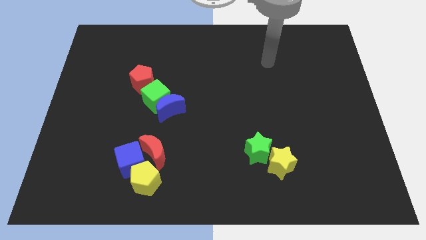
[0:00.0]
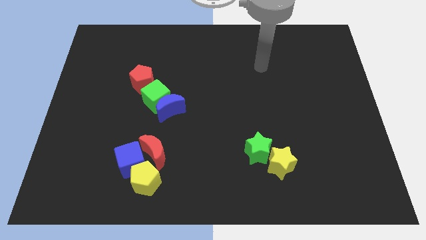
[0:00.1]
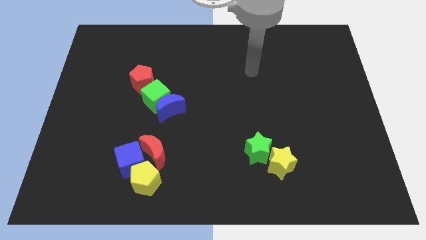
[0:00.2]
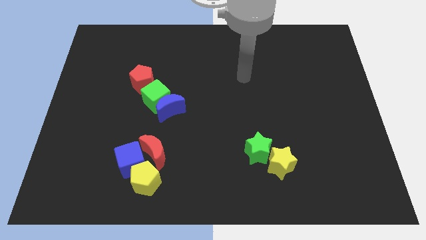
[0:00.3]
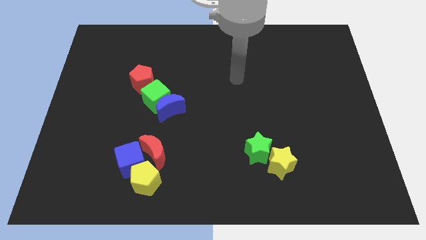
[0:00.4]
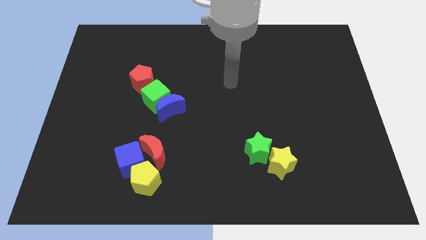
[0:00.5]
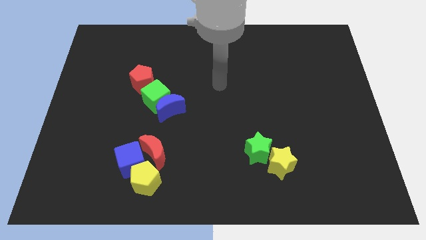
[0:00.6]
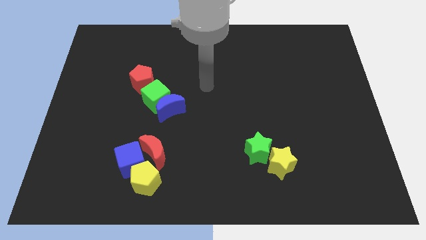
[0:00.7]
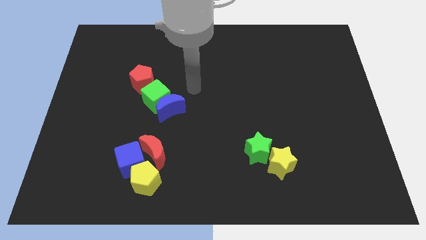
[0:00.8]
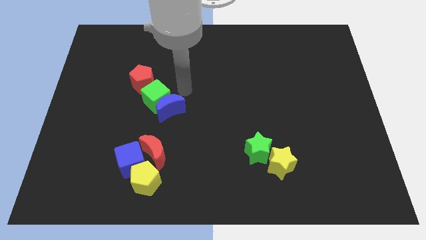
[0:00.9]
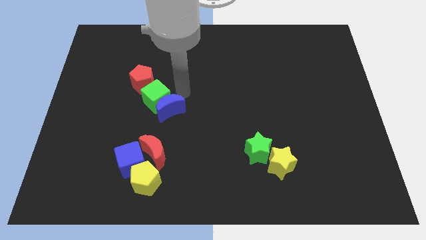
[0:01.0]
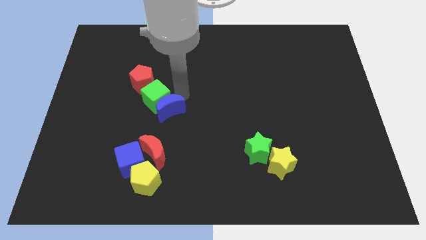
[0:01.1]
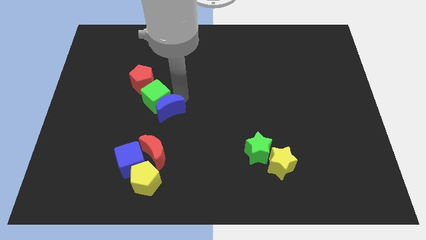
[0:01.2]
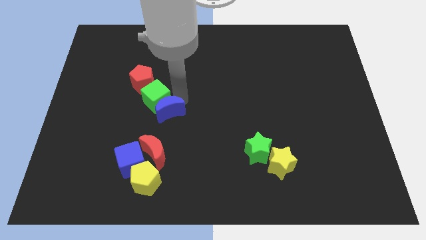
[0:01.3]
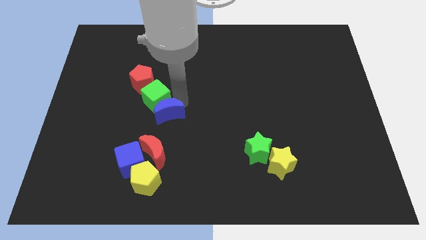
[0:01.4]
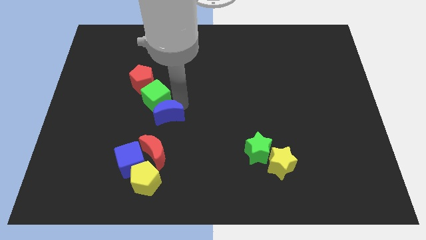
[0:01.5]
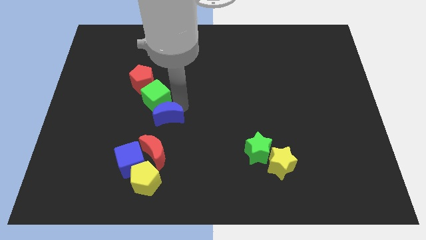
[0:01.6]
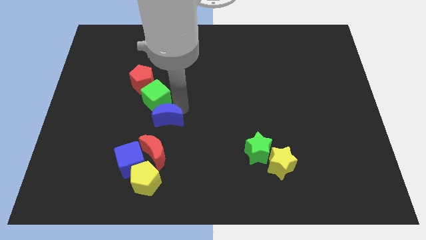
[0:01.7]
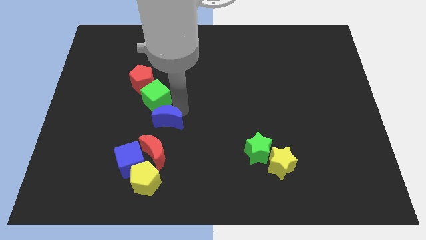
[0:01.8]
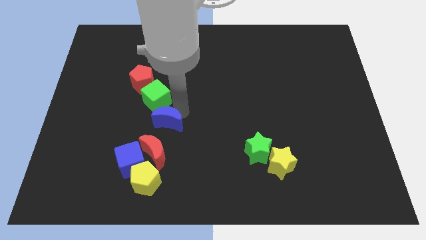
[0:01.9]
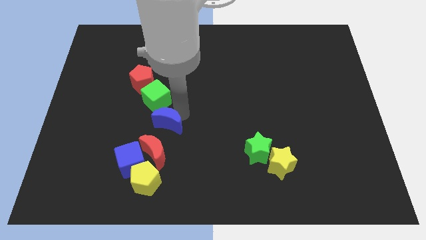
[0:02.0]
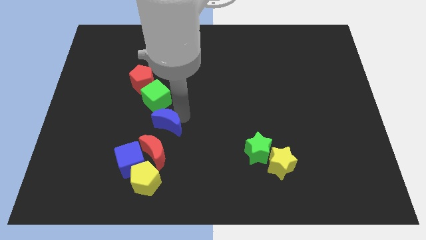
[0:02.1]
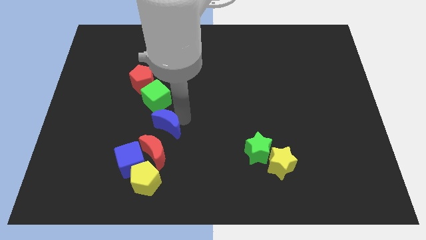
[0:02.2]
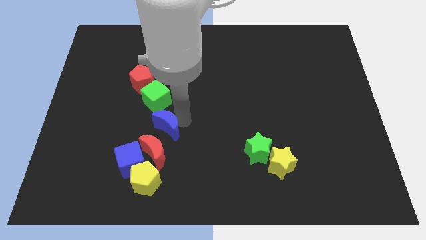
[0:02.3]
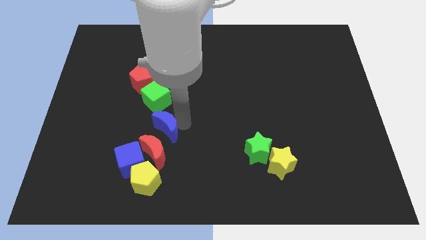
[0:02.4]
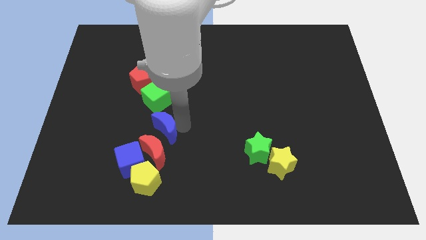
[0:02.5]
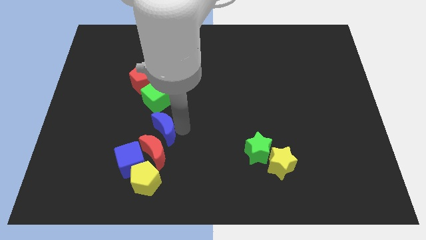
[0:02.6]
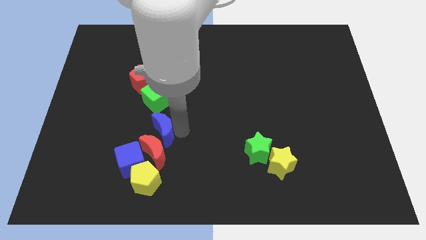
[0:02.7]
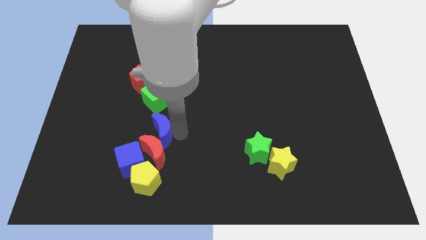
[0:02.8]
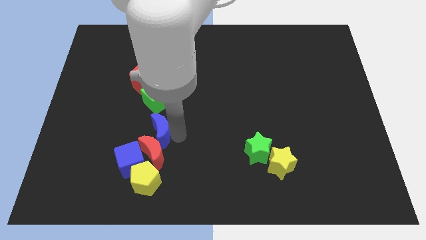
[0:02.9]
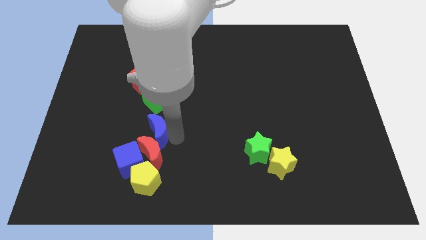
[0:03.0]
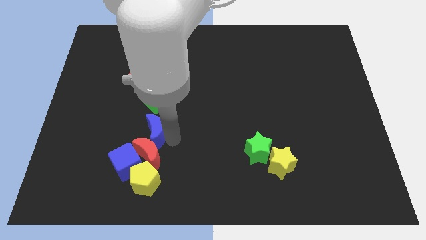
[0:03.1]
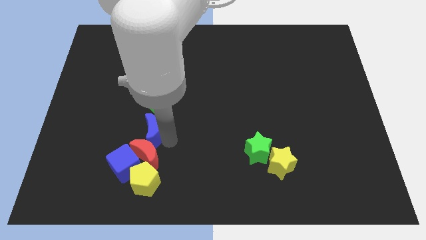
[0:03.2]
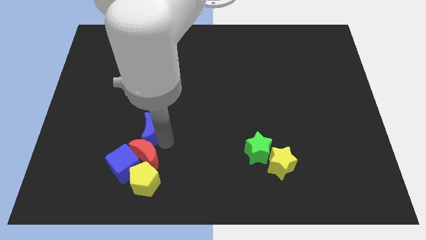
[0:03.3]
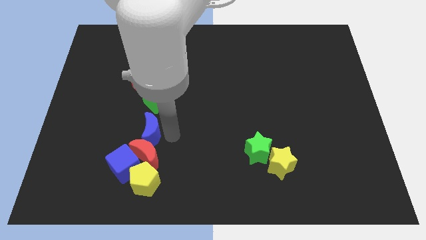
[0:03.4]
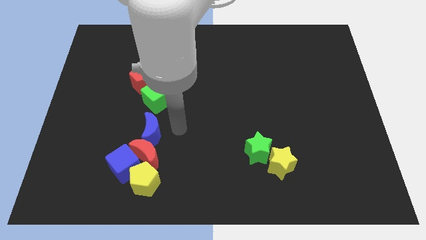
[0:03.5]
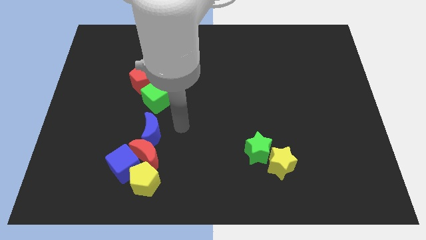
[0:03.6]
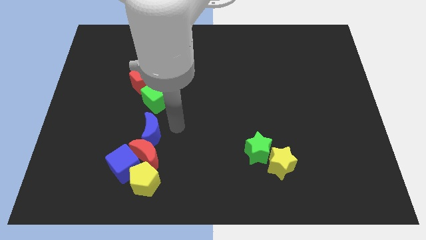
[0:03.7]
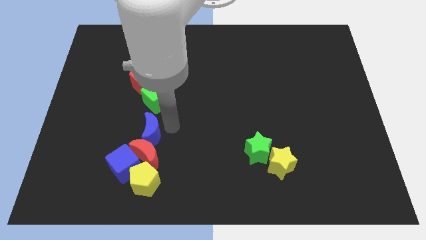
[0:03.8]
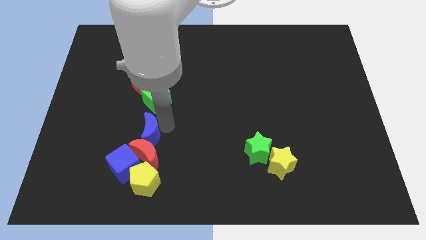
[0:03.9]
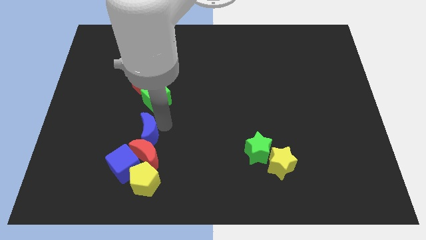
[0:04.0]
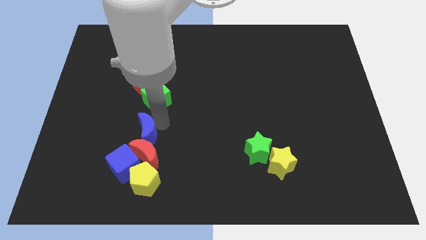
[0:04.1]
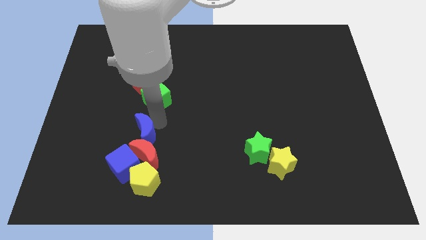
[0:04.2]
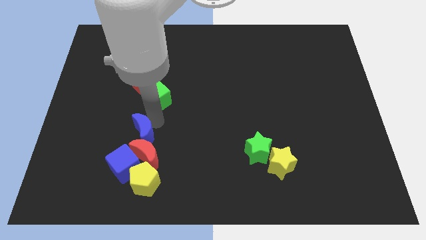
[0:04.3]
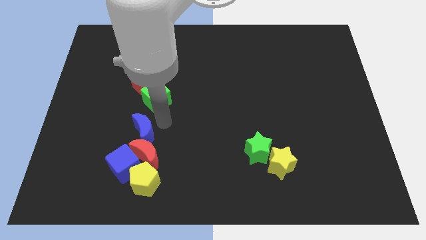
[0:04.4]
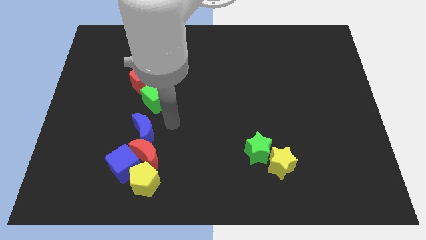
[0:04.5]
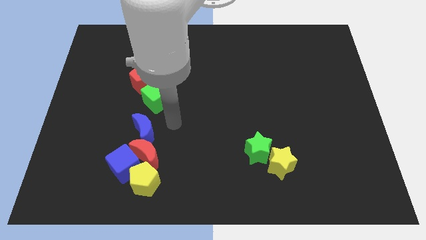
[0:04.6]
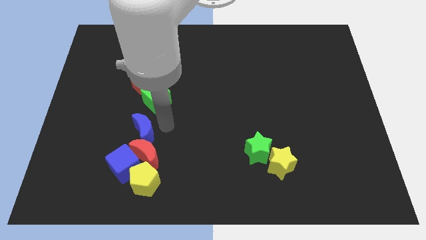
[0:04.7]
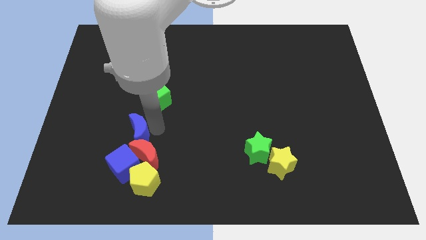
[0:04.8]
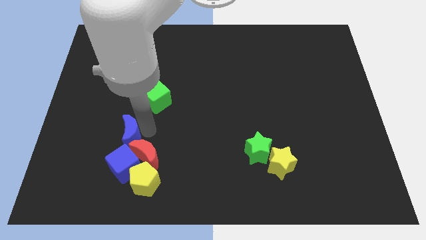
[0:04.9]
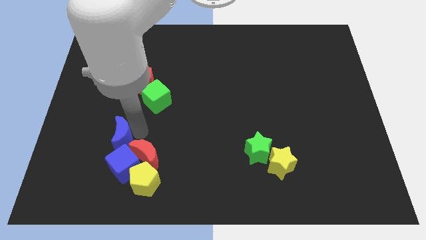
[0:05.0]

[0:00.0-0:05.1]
put the blue moon to the top left side of the blue cube

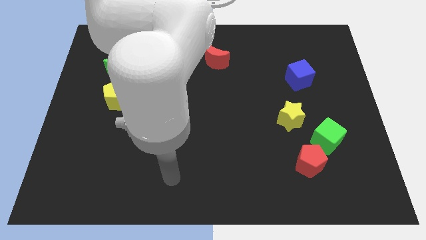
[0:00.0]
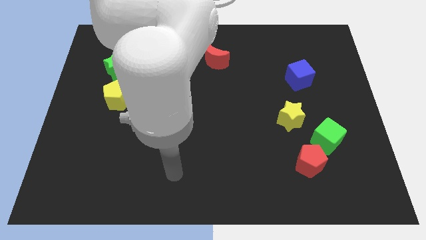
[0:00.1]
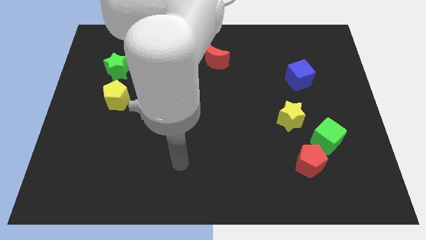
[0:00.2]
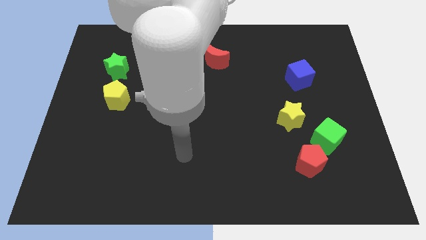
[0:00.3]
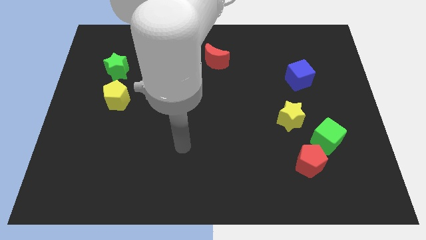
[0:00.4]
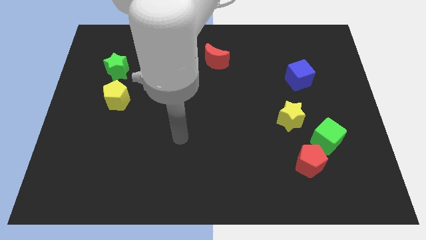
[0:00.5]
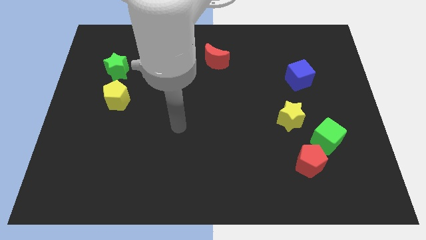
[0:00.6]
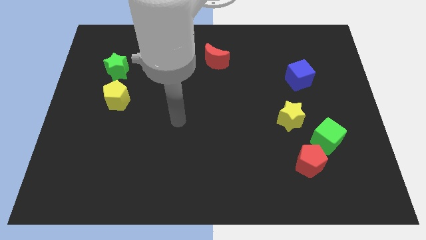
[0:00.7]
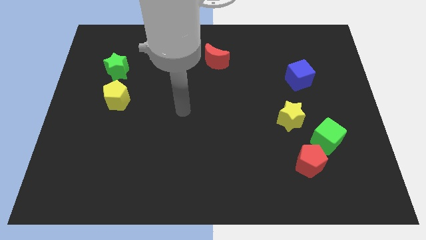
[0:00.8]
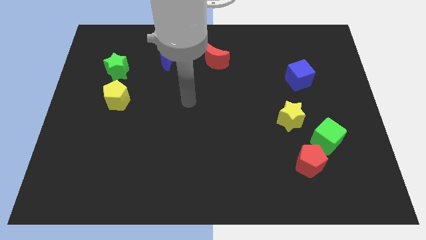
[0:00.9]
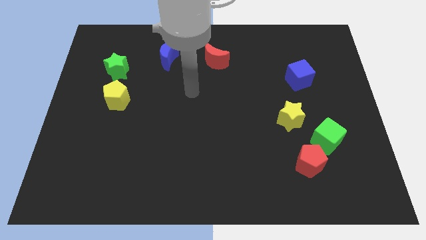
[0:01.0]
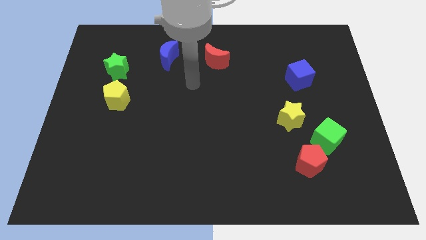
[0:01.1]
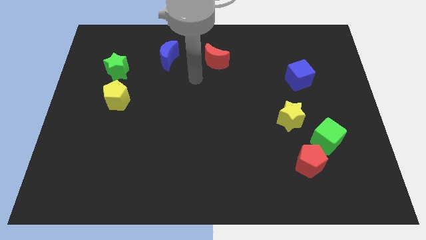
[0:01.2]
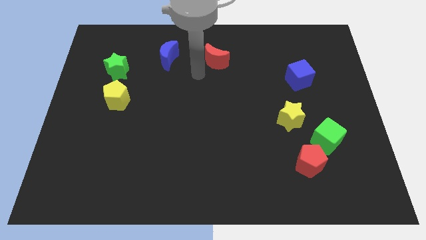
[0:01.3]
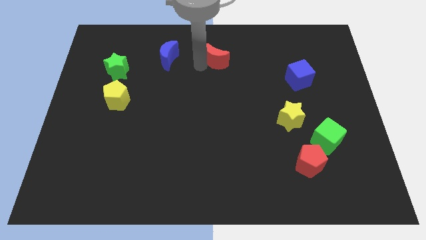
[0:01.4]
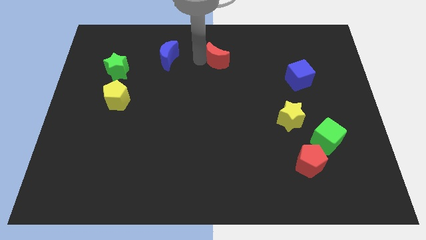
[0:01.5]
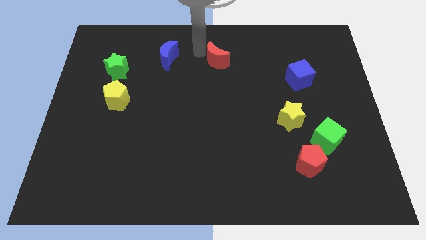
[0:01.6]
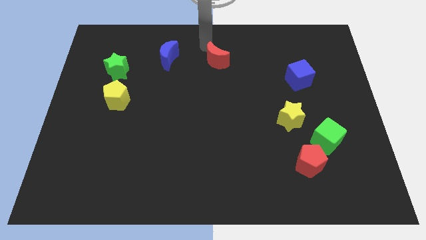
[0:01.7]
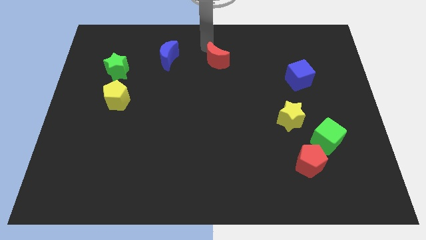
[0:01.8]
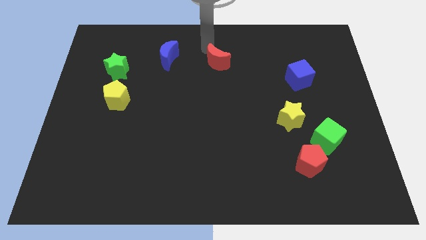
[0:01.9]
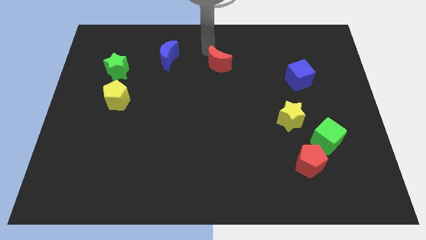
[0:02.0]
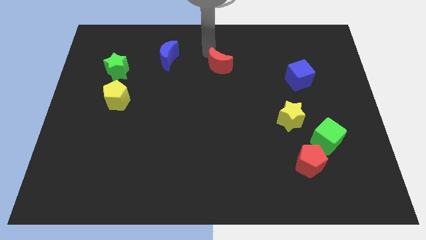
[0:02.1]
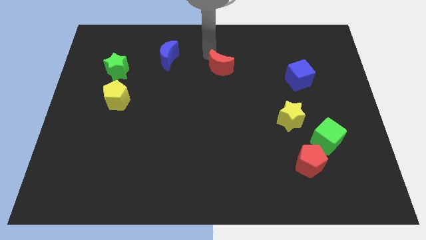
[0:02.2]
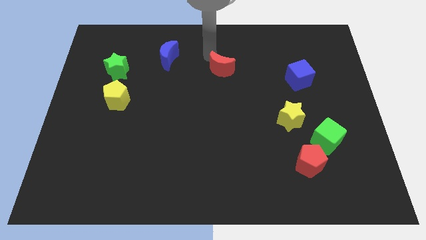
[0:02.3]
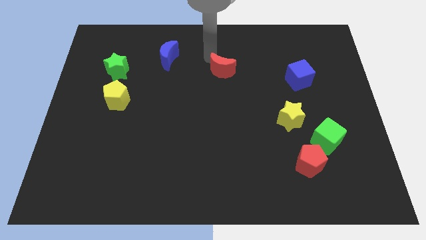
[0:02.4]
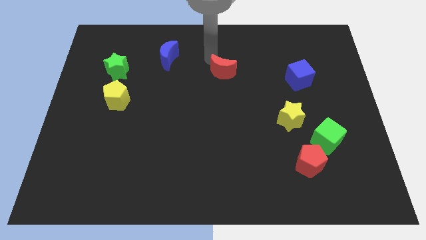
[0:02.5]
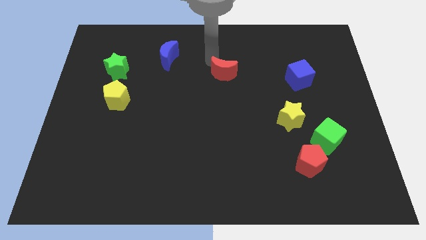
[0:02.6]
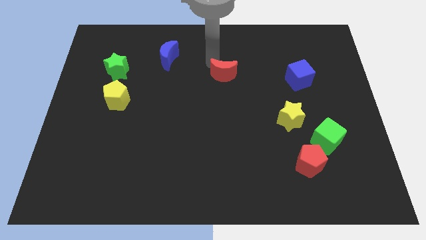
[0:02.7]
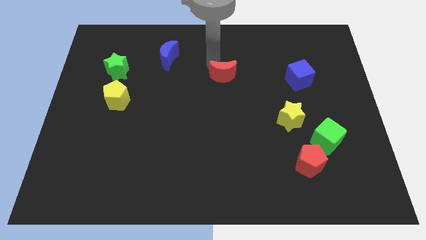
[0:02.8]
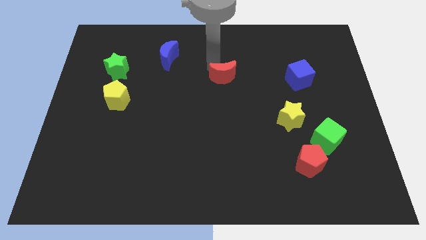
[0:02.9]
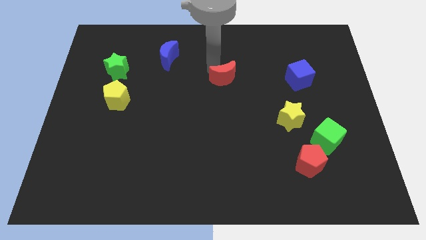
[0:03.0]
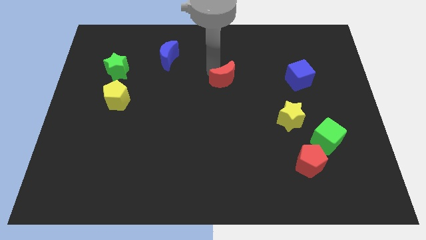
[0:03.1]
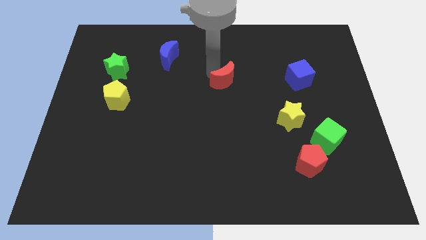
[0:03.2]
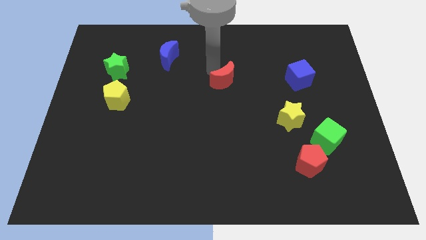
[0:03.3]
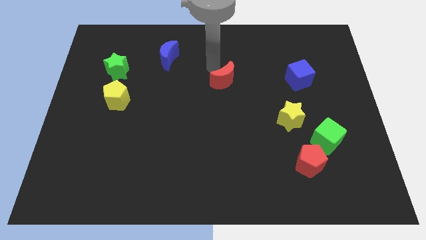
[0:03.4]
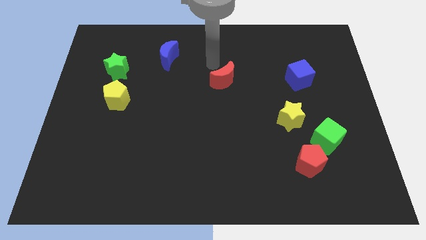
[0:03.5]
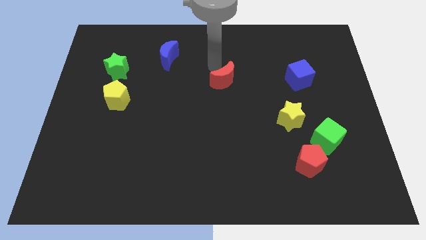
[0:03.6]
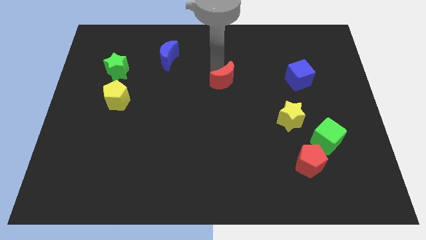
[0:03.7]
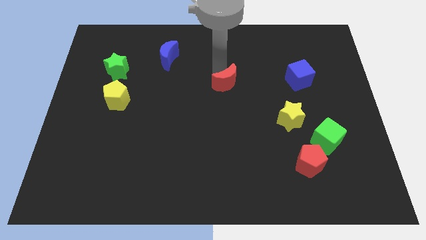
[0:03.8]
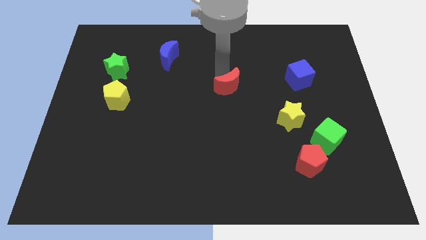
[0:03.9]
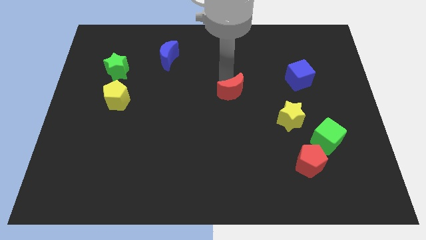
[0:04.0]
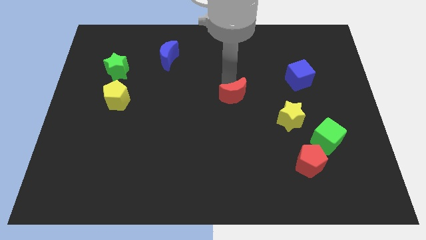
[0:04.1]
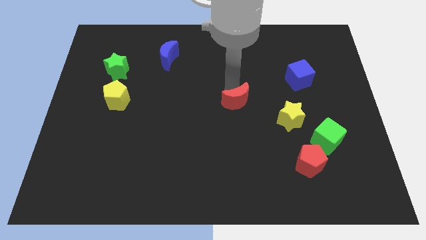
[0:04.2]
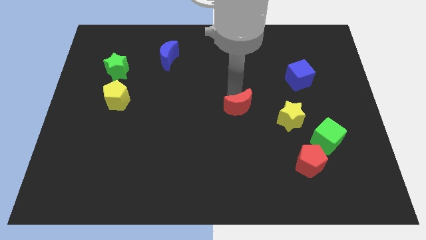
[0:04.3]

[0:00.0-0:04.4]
slide the red moon just left of the yellow star
